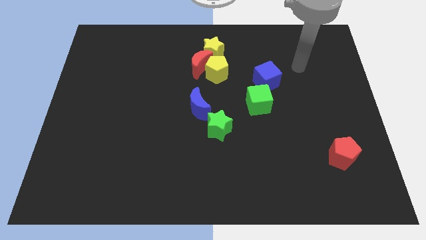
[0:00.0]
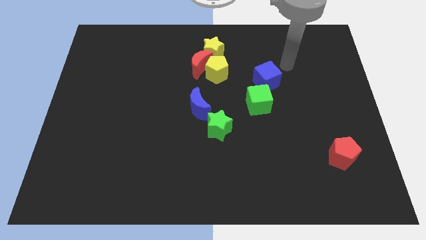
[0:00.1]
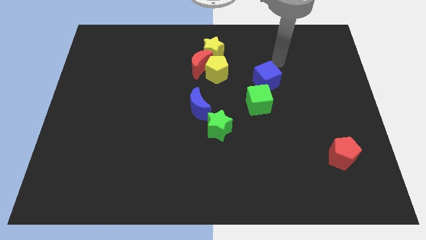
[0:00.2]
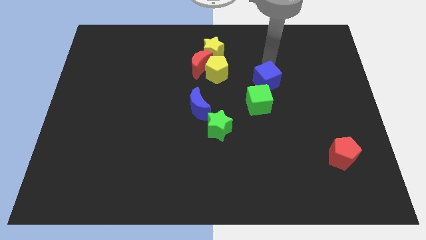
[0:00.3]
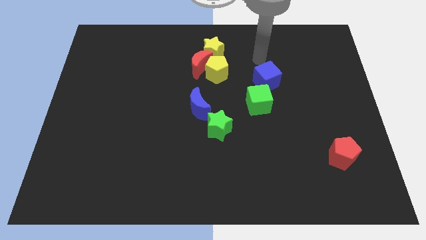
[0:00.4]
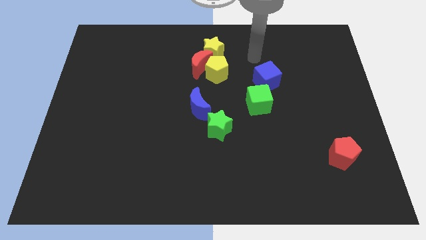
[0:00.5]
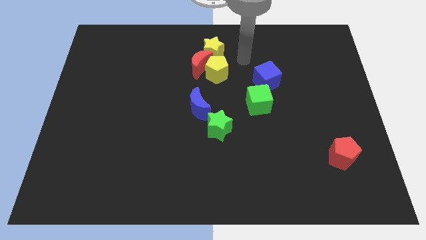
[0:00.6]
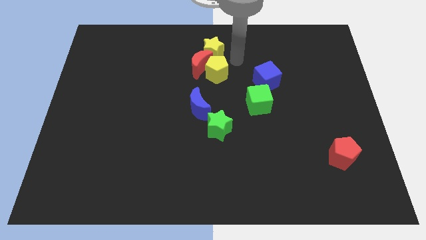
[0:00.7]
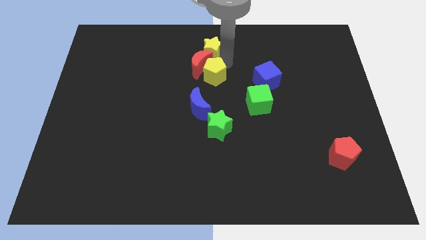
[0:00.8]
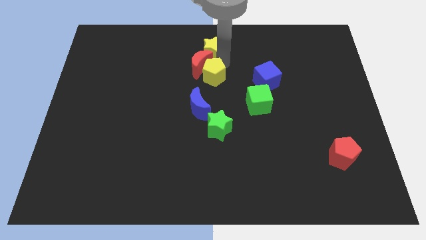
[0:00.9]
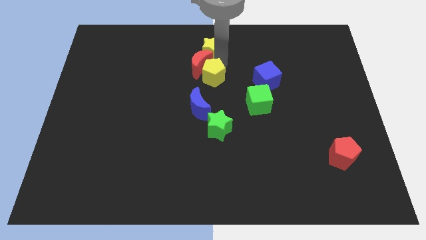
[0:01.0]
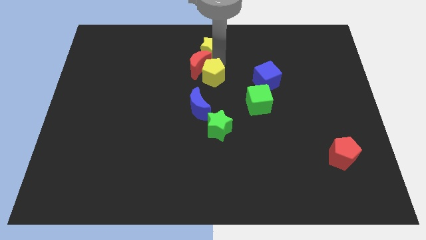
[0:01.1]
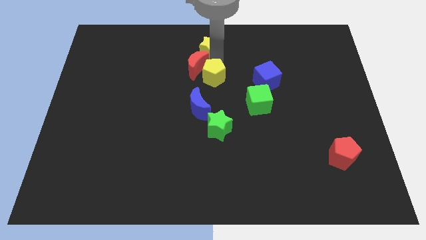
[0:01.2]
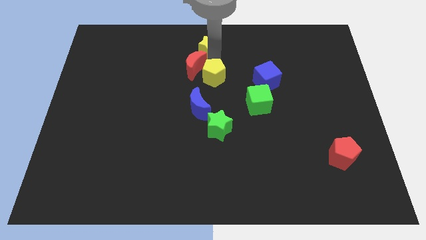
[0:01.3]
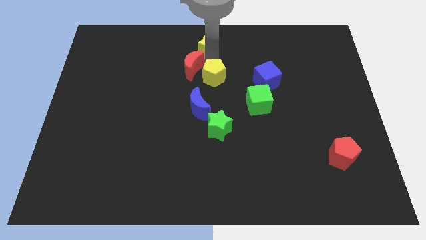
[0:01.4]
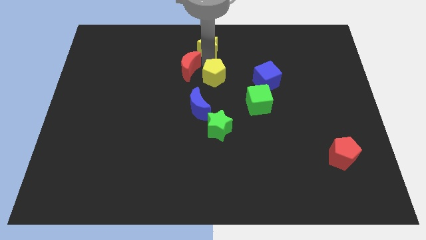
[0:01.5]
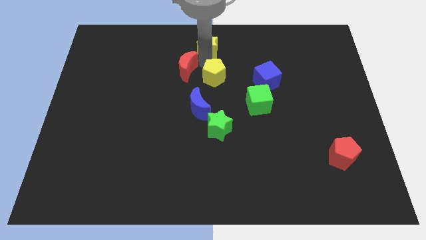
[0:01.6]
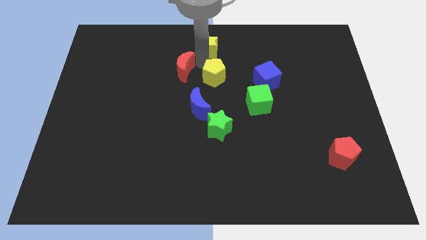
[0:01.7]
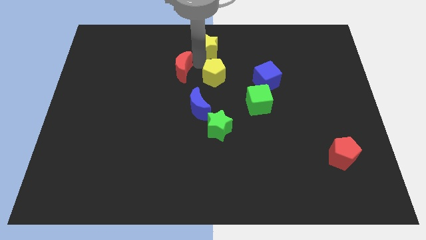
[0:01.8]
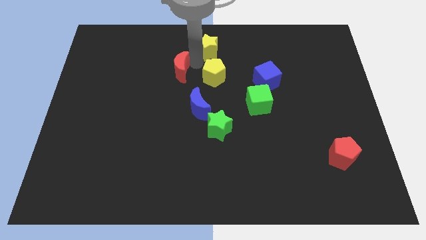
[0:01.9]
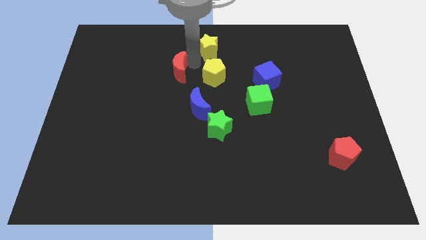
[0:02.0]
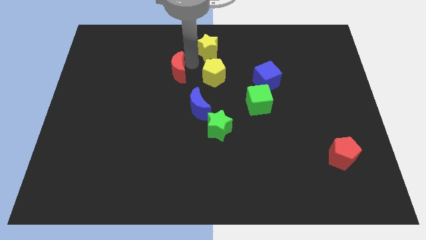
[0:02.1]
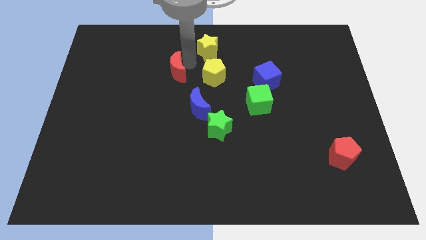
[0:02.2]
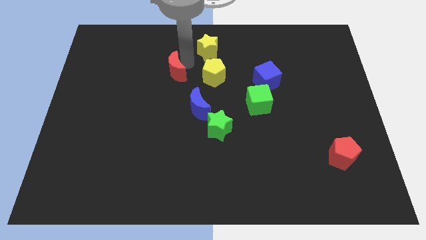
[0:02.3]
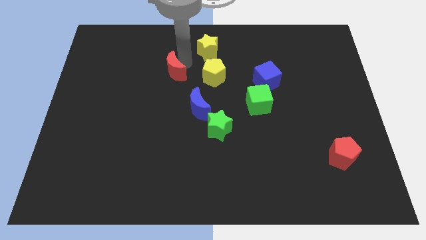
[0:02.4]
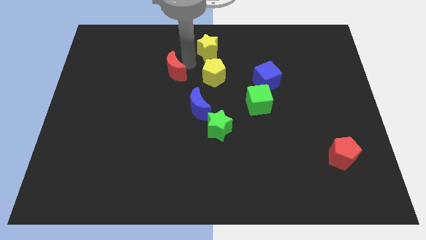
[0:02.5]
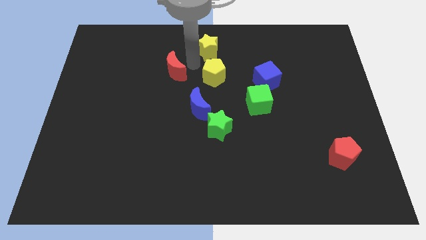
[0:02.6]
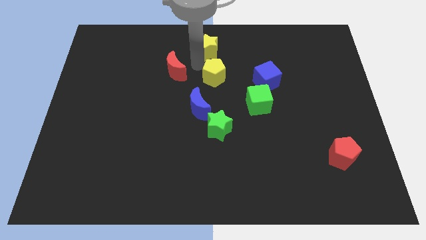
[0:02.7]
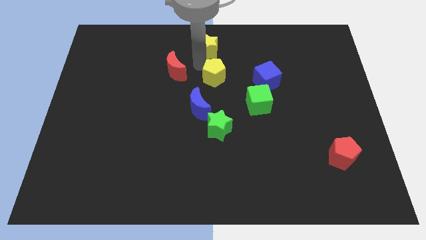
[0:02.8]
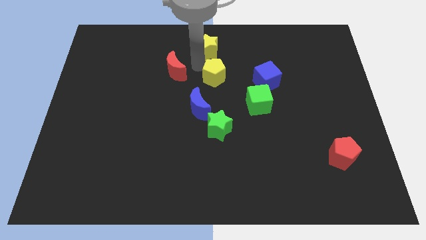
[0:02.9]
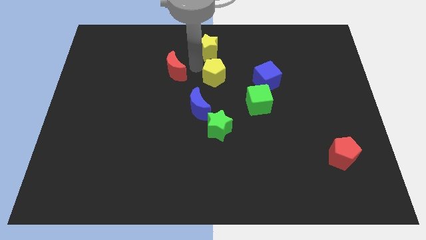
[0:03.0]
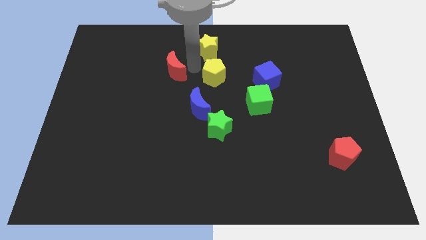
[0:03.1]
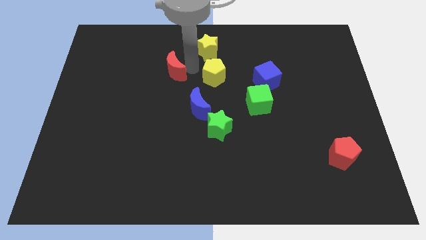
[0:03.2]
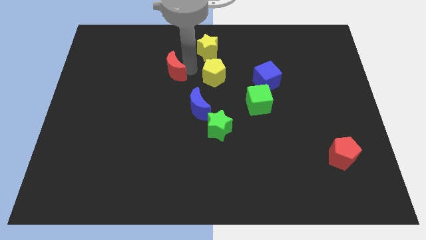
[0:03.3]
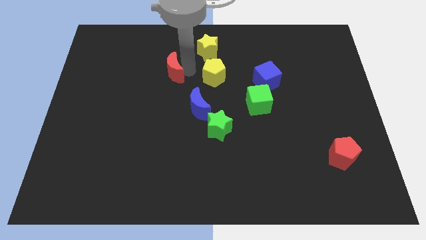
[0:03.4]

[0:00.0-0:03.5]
pull the red moon apart from the yellow pentagon and yellow star

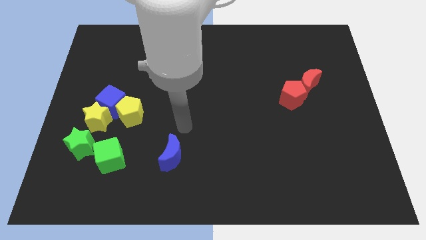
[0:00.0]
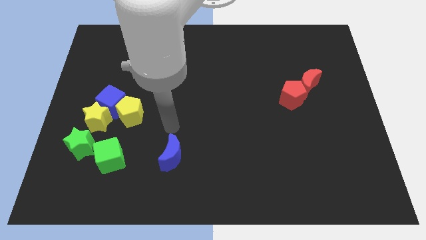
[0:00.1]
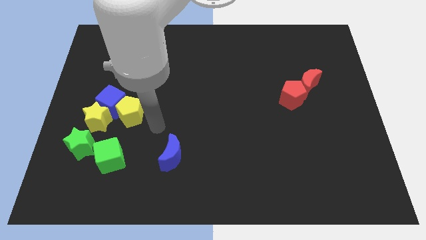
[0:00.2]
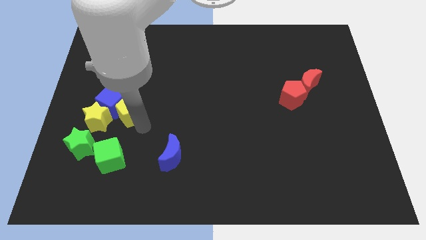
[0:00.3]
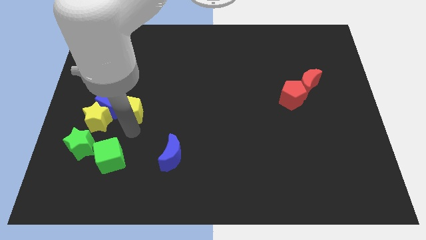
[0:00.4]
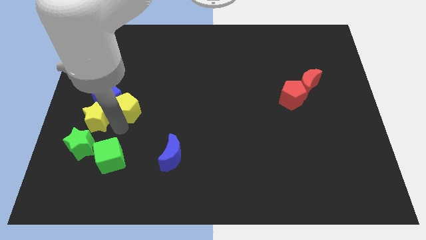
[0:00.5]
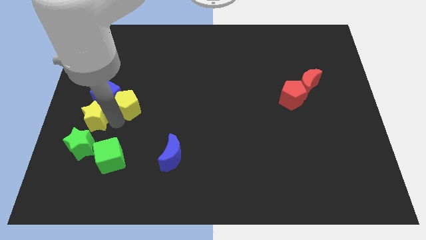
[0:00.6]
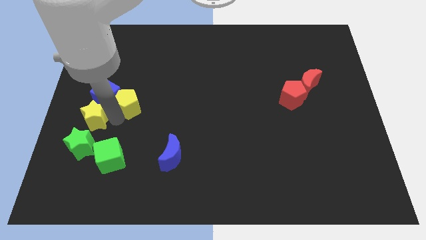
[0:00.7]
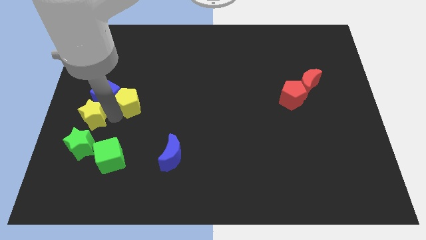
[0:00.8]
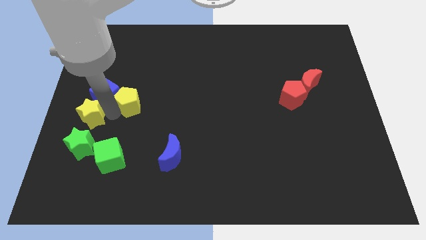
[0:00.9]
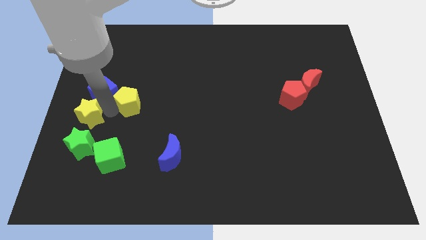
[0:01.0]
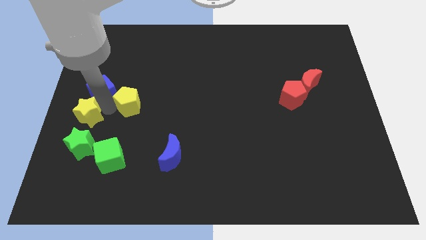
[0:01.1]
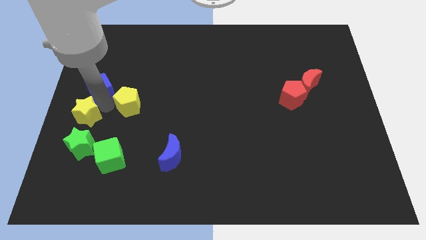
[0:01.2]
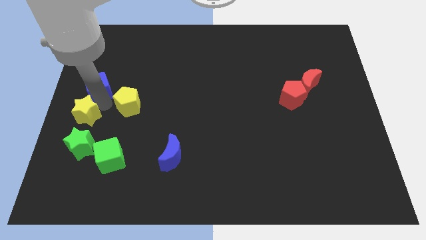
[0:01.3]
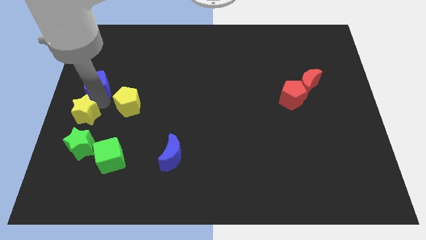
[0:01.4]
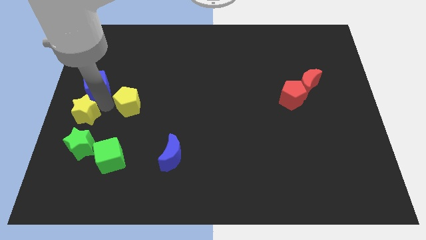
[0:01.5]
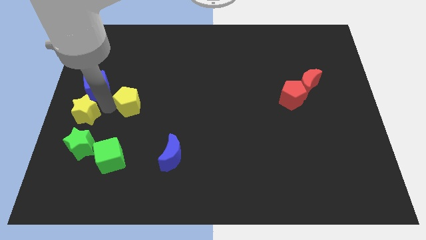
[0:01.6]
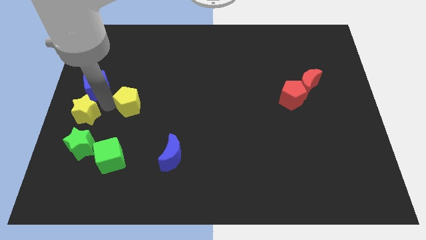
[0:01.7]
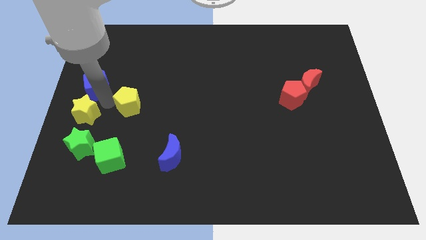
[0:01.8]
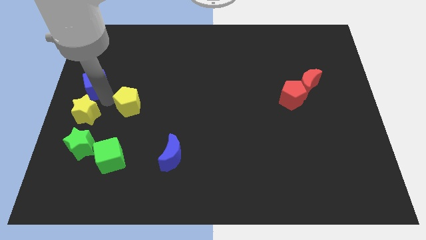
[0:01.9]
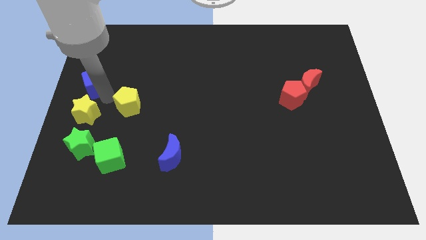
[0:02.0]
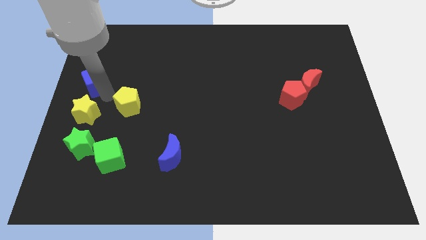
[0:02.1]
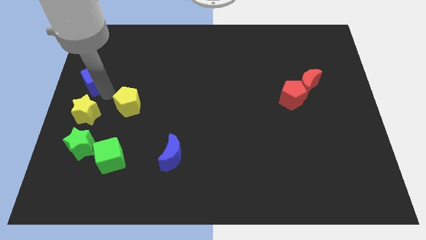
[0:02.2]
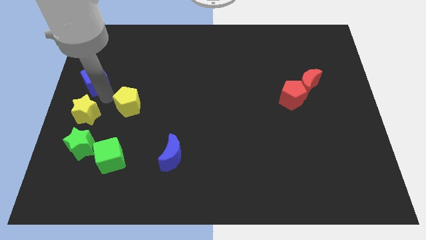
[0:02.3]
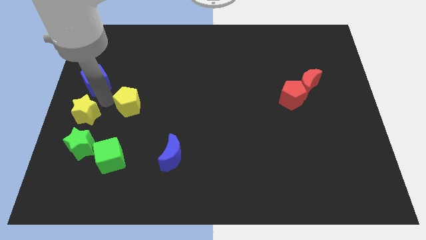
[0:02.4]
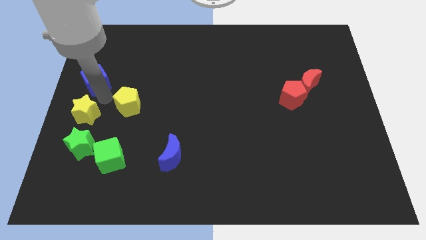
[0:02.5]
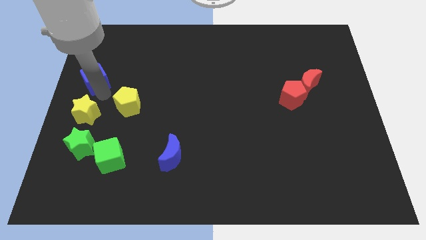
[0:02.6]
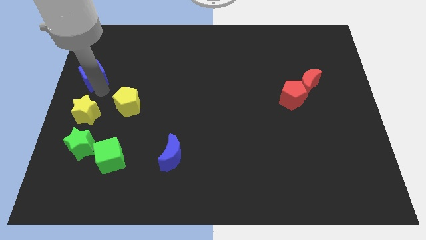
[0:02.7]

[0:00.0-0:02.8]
pull the blue cube apart from the yellow star and yellow pentagon

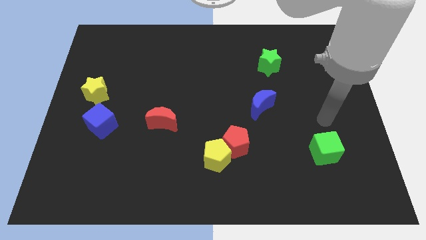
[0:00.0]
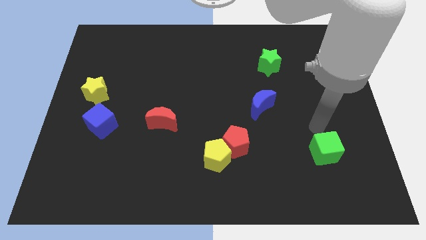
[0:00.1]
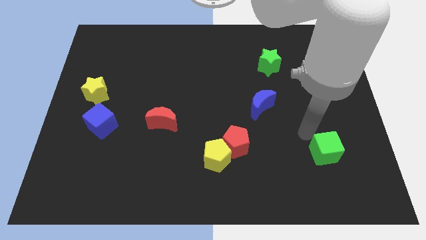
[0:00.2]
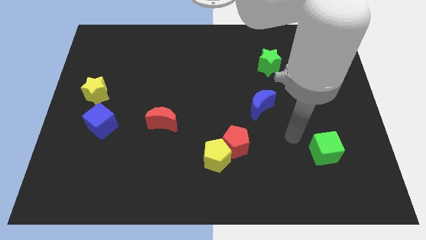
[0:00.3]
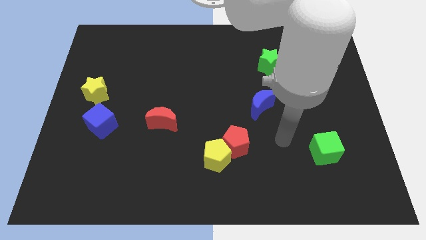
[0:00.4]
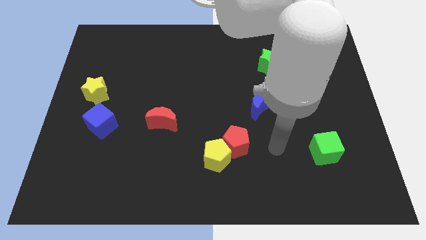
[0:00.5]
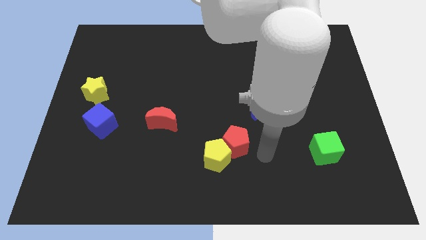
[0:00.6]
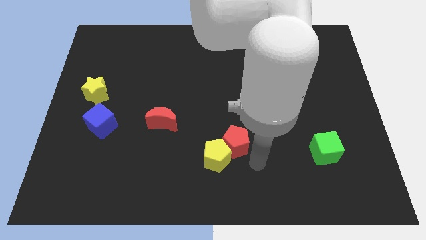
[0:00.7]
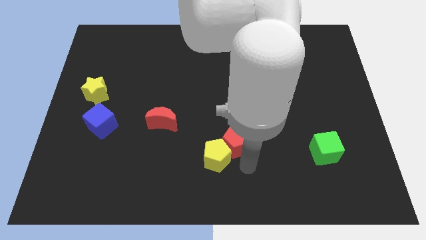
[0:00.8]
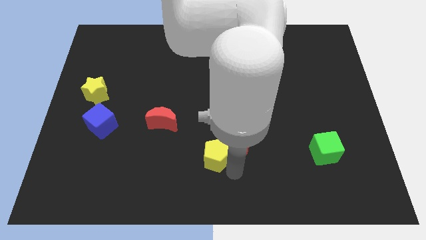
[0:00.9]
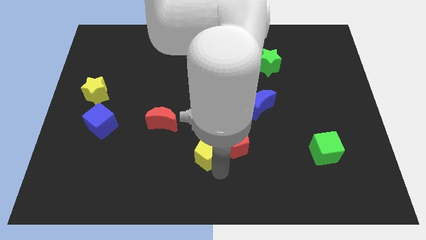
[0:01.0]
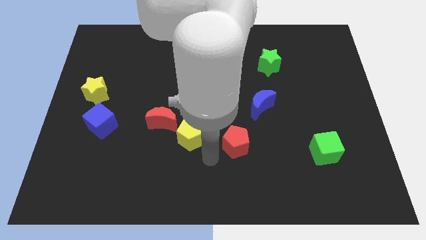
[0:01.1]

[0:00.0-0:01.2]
move the red pentagon away from the yellow pentagon

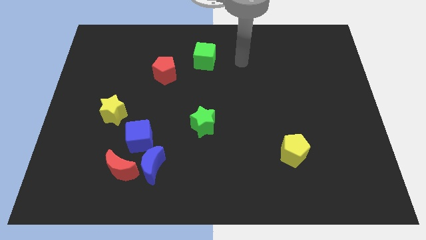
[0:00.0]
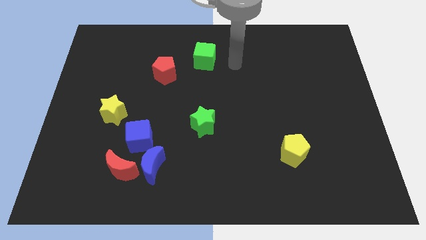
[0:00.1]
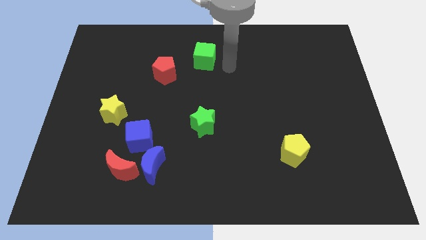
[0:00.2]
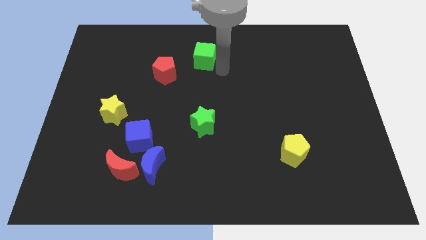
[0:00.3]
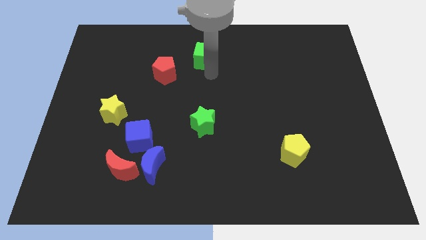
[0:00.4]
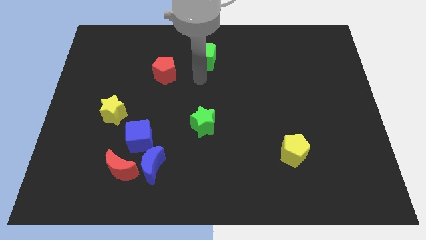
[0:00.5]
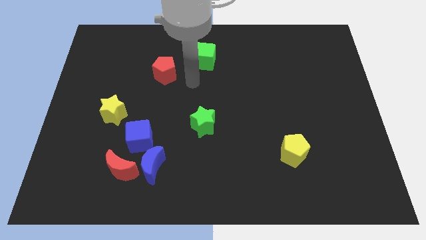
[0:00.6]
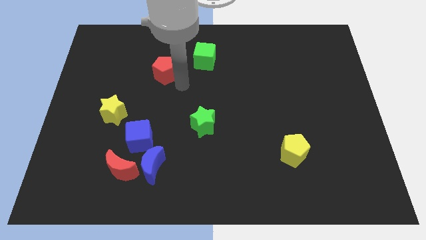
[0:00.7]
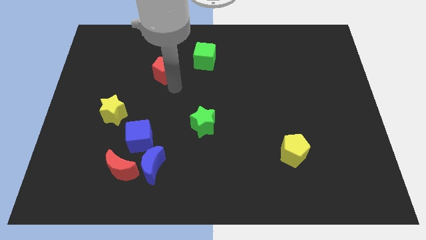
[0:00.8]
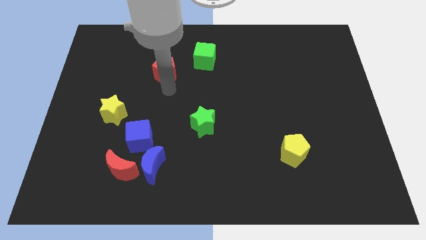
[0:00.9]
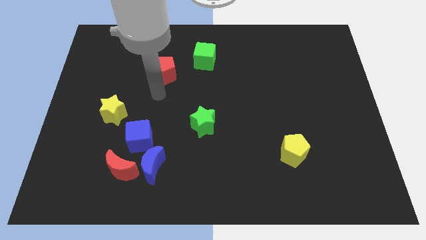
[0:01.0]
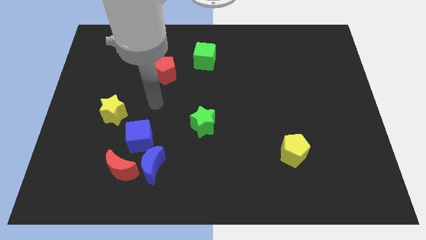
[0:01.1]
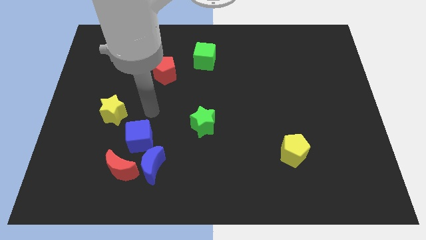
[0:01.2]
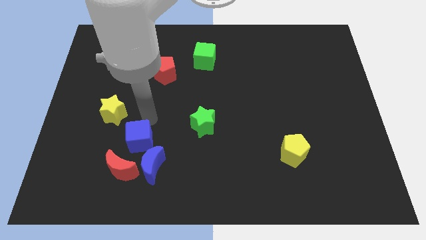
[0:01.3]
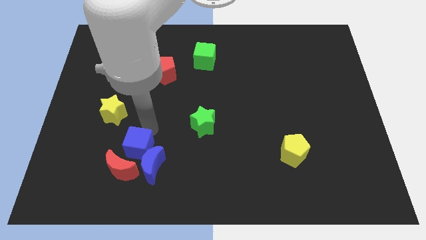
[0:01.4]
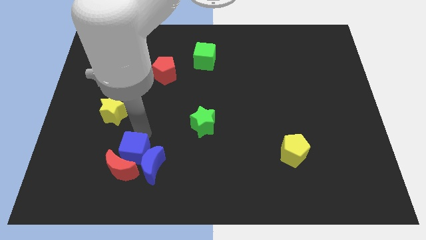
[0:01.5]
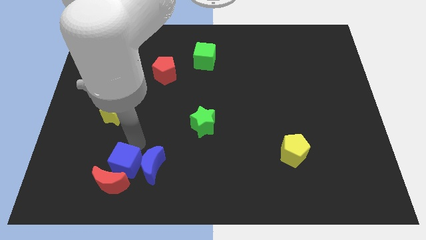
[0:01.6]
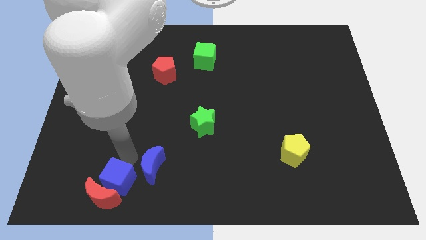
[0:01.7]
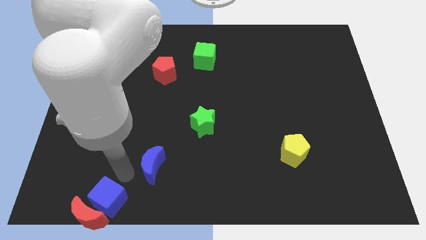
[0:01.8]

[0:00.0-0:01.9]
move the blue moon away from the red moon and blue cube
